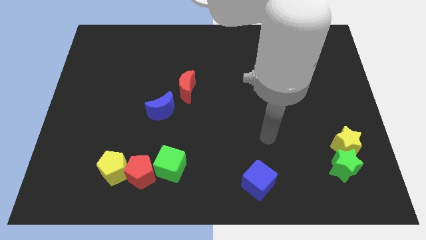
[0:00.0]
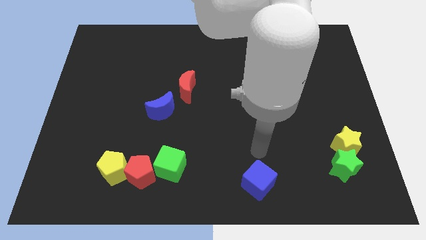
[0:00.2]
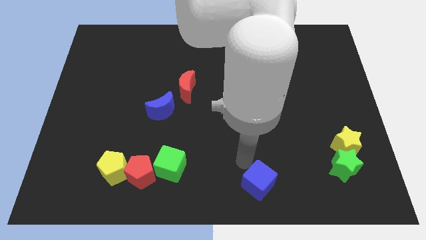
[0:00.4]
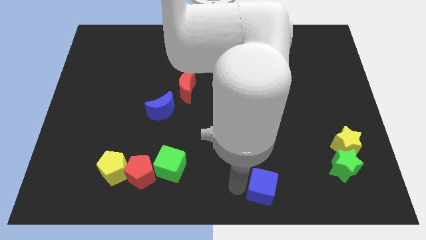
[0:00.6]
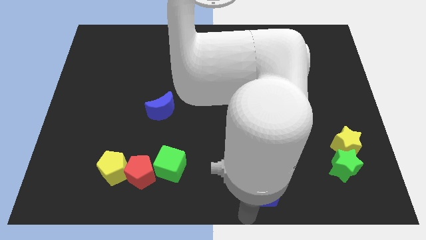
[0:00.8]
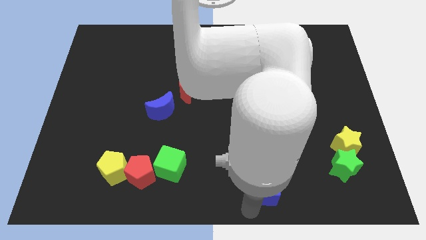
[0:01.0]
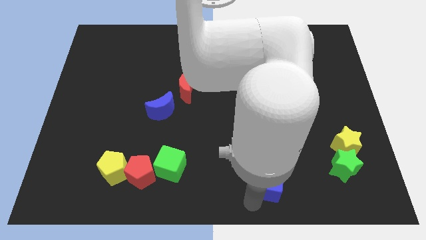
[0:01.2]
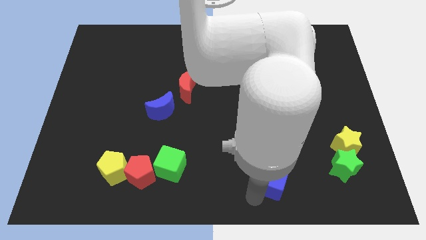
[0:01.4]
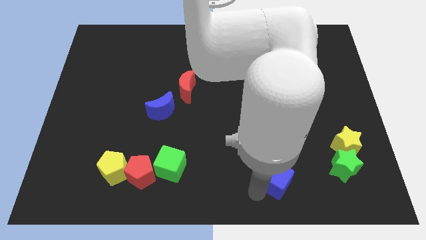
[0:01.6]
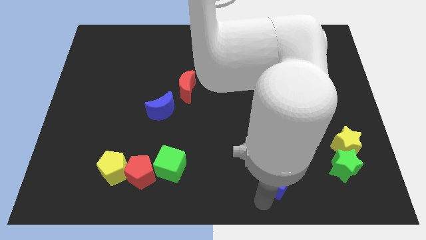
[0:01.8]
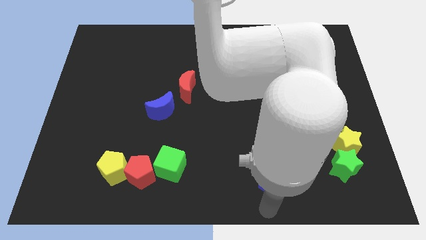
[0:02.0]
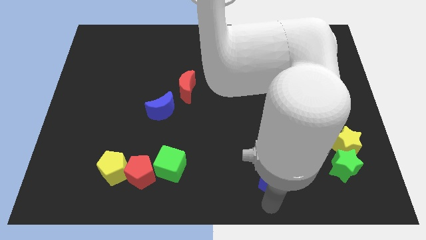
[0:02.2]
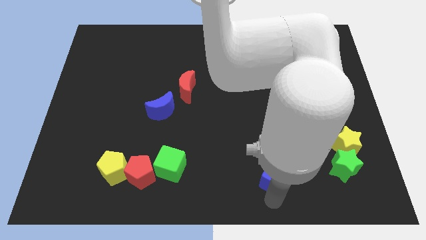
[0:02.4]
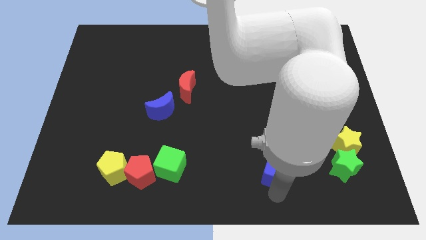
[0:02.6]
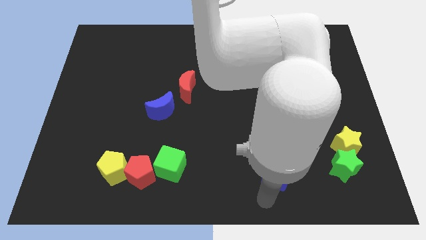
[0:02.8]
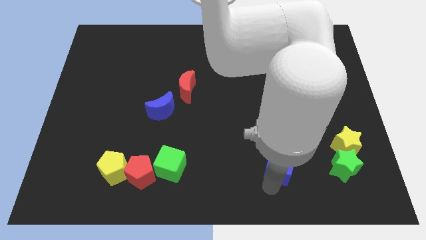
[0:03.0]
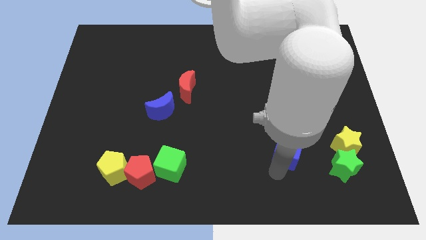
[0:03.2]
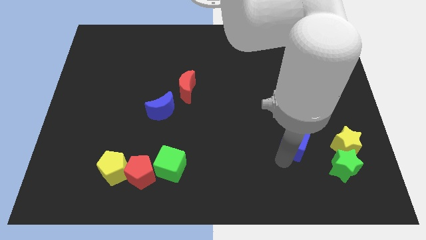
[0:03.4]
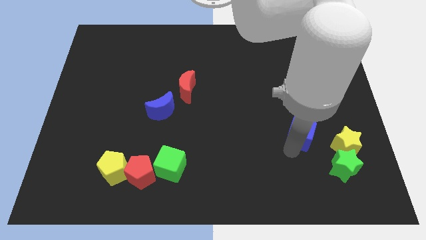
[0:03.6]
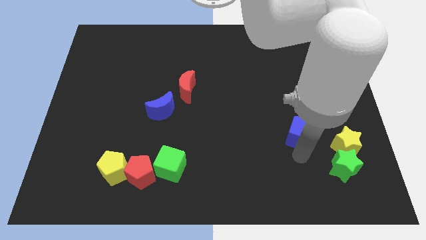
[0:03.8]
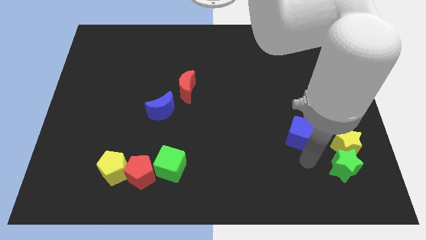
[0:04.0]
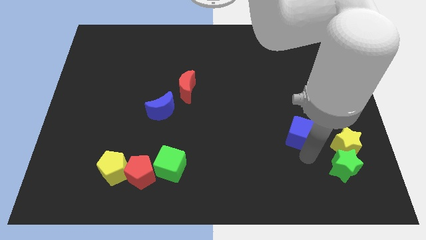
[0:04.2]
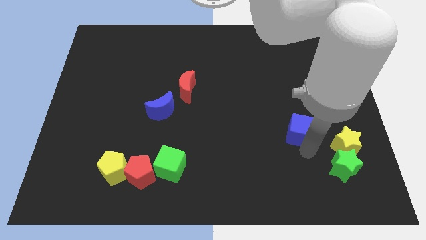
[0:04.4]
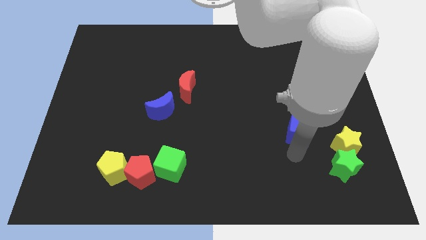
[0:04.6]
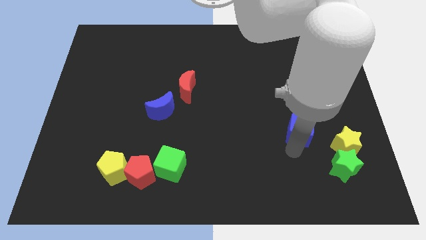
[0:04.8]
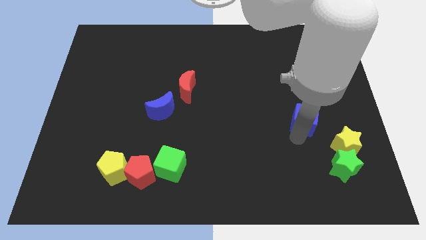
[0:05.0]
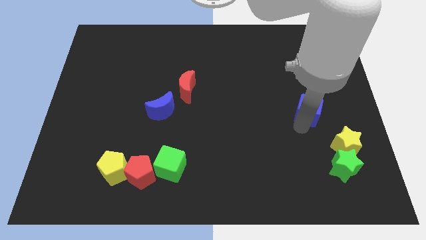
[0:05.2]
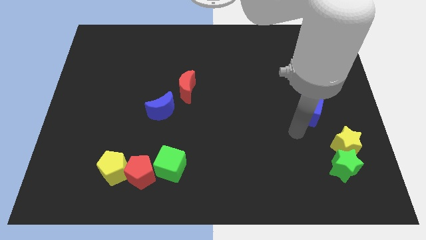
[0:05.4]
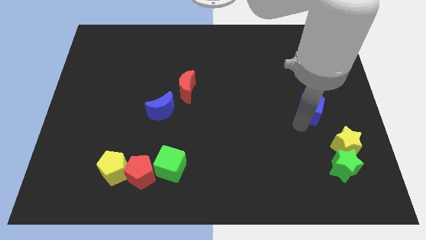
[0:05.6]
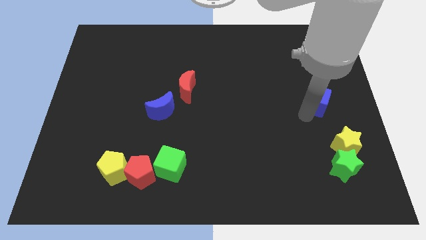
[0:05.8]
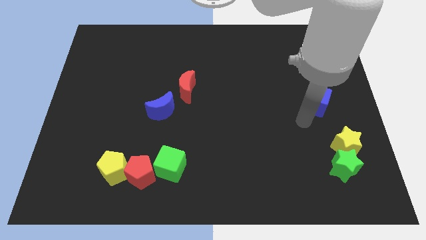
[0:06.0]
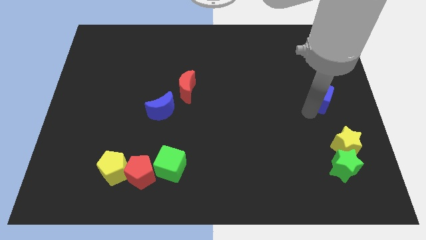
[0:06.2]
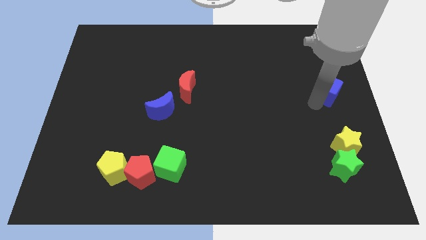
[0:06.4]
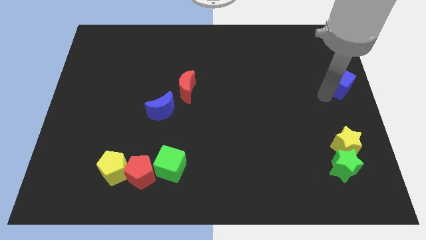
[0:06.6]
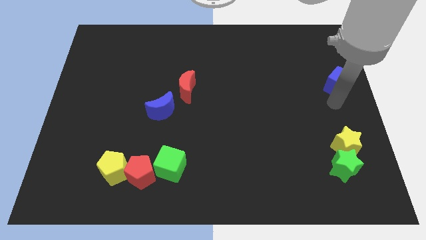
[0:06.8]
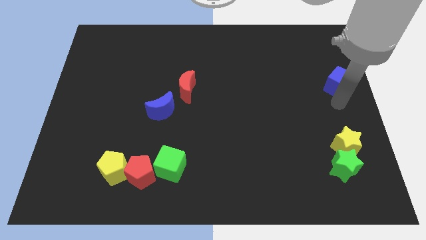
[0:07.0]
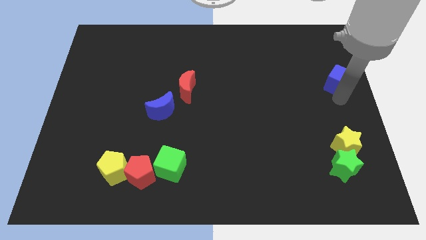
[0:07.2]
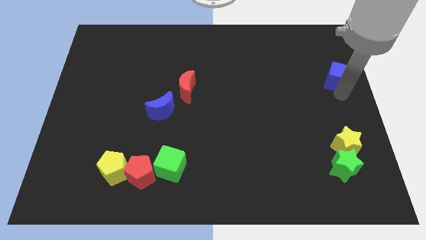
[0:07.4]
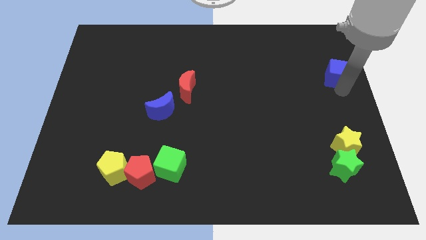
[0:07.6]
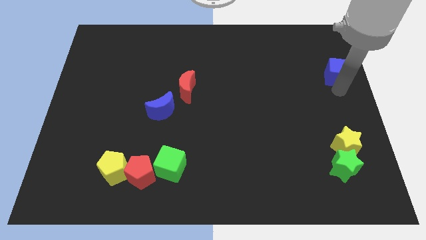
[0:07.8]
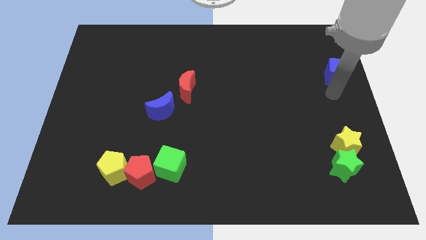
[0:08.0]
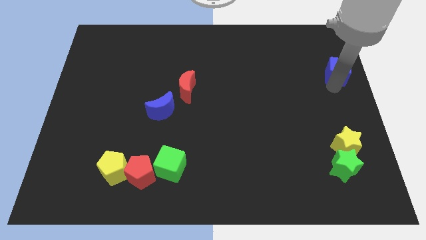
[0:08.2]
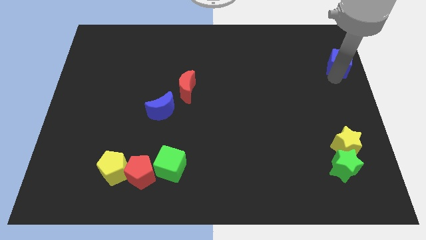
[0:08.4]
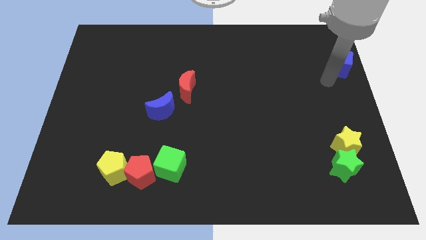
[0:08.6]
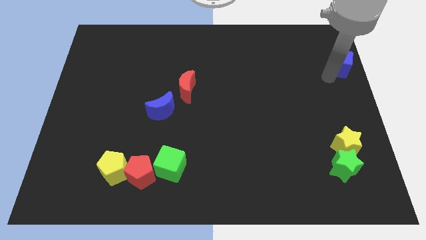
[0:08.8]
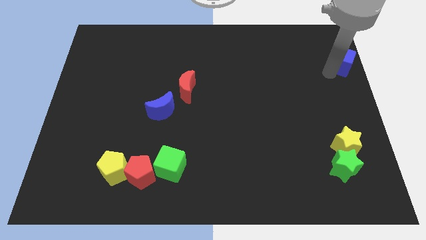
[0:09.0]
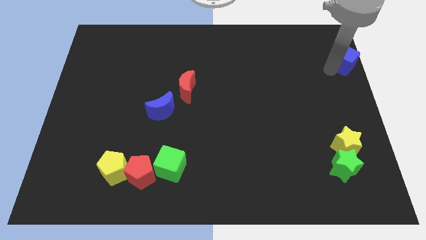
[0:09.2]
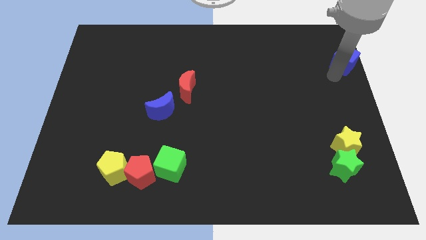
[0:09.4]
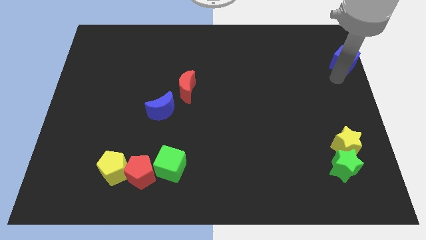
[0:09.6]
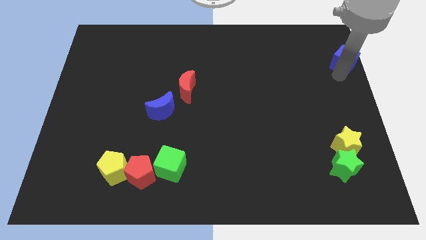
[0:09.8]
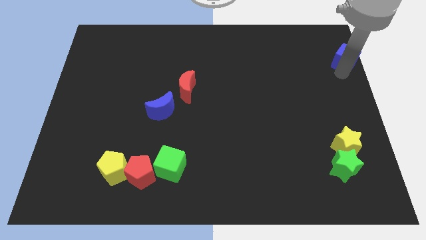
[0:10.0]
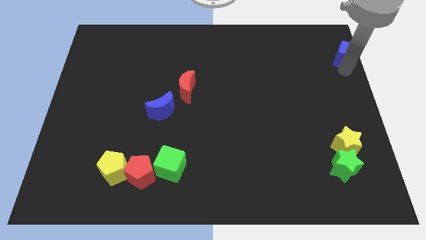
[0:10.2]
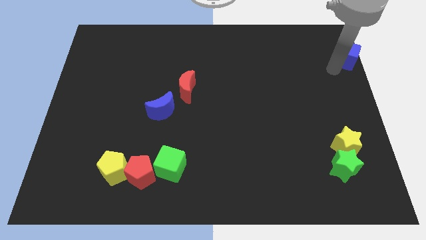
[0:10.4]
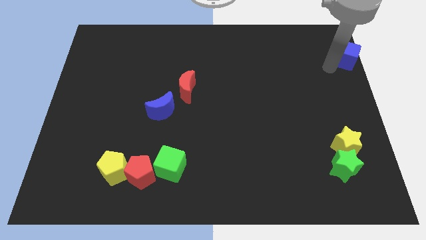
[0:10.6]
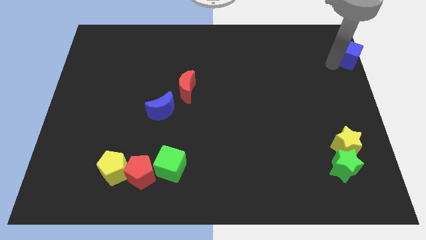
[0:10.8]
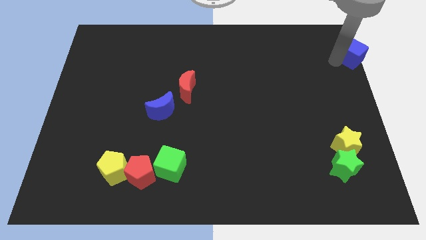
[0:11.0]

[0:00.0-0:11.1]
move the blue cube to the upper right corner
